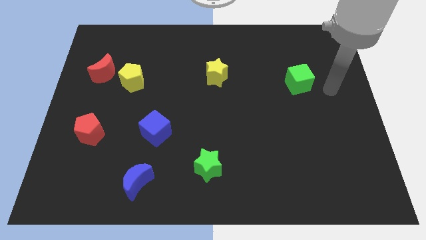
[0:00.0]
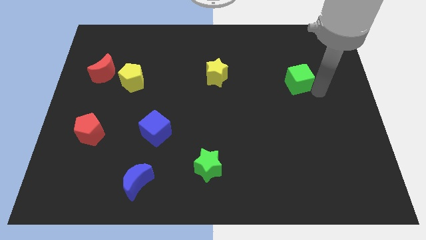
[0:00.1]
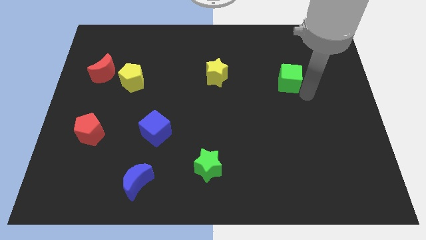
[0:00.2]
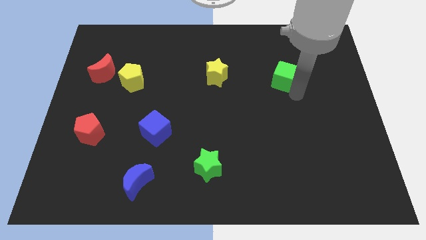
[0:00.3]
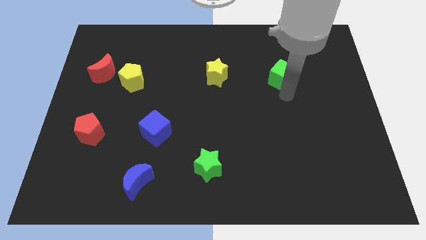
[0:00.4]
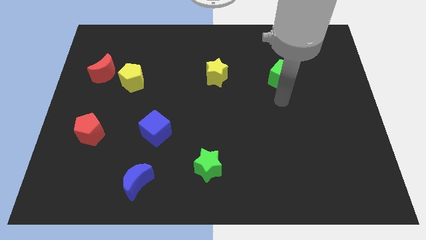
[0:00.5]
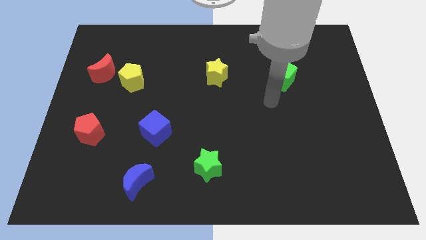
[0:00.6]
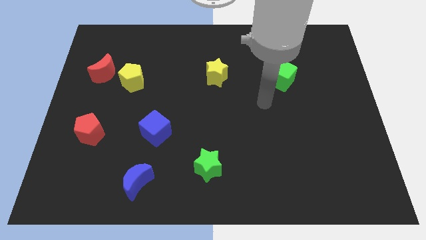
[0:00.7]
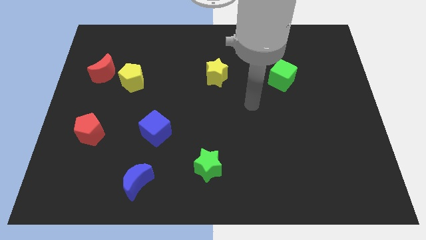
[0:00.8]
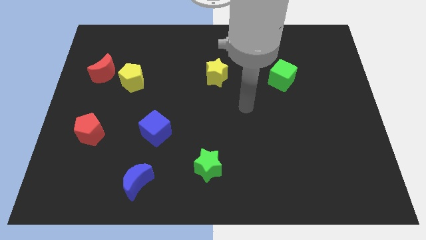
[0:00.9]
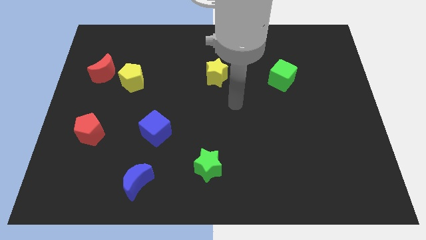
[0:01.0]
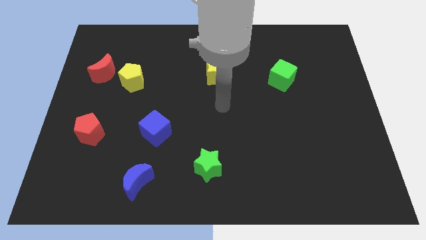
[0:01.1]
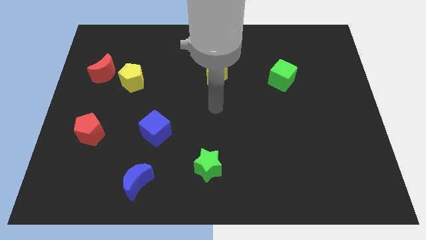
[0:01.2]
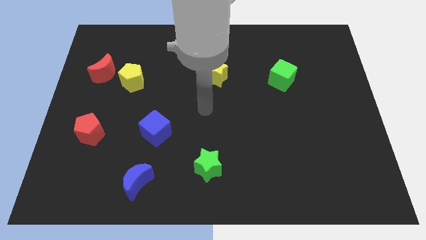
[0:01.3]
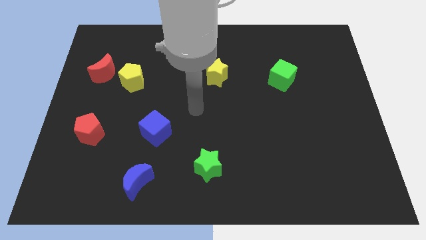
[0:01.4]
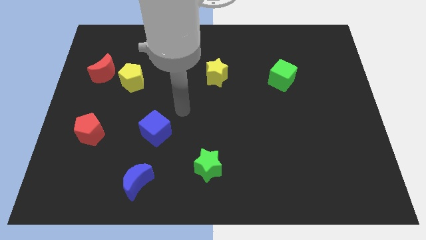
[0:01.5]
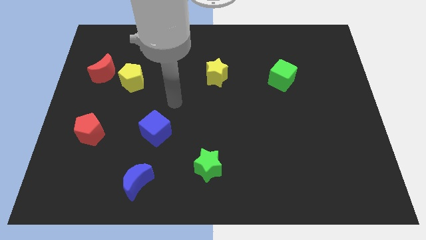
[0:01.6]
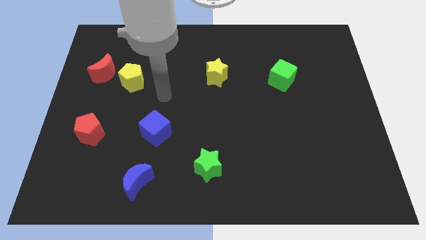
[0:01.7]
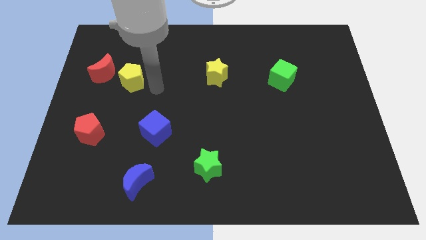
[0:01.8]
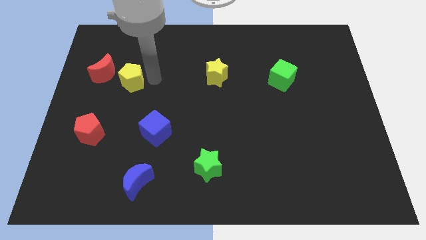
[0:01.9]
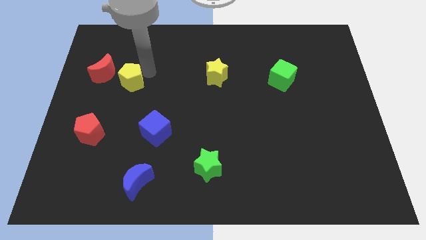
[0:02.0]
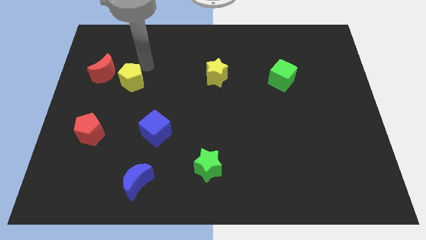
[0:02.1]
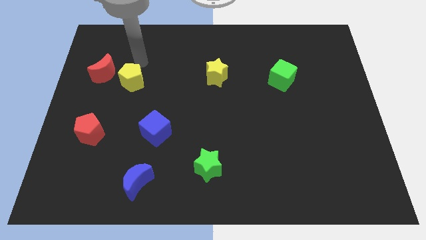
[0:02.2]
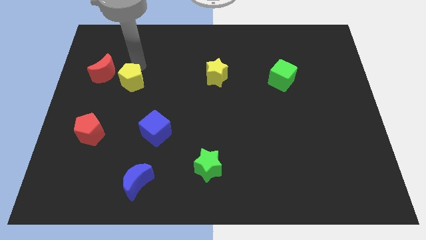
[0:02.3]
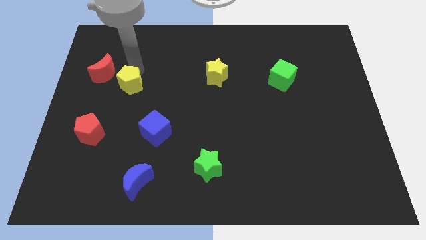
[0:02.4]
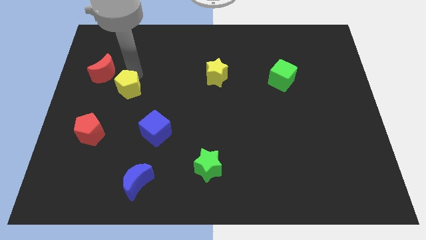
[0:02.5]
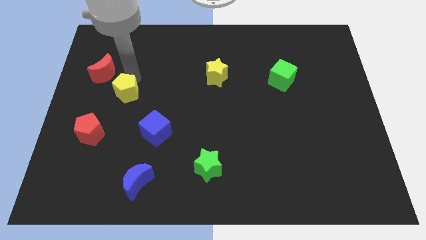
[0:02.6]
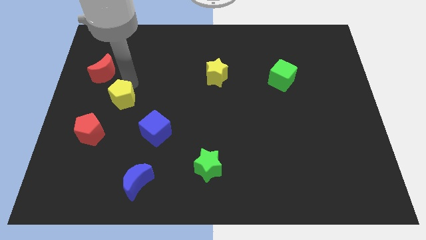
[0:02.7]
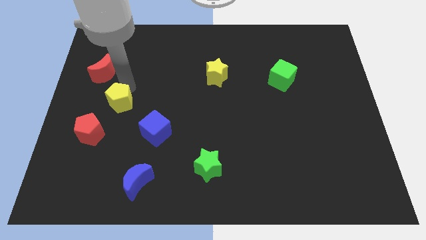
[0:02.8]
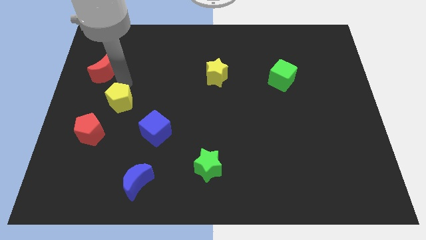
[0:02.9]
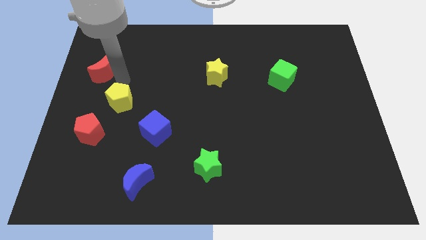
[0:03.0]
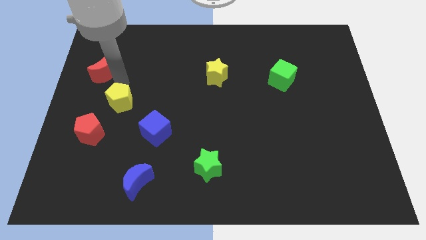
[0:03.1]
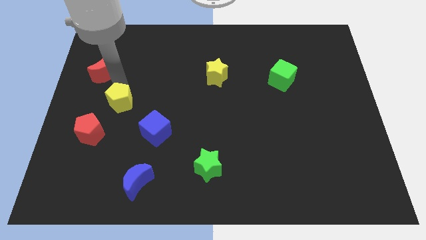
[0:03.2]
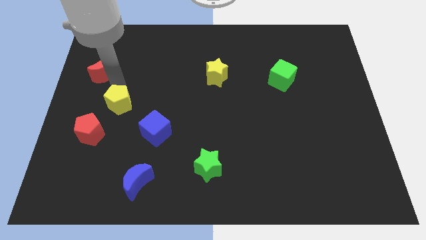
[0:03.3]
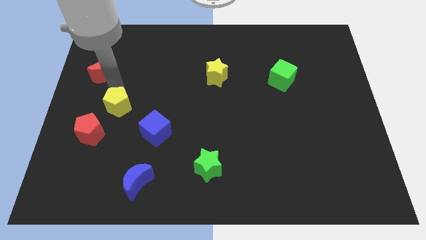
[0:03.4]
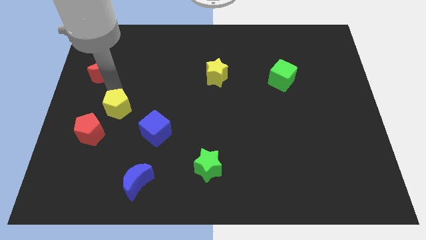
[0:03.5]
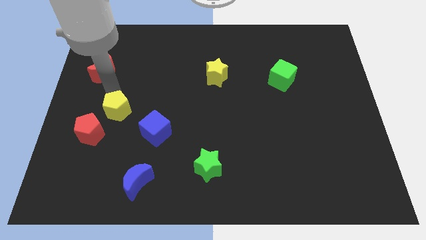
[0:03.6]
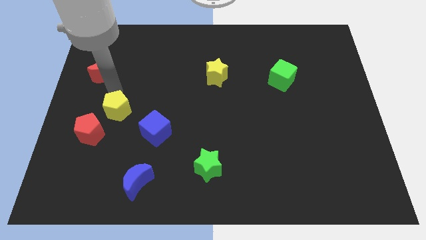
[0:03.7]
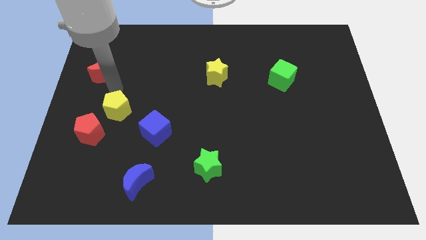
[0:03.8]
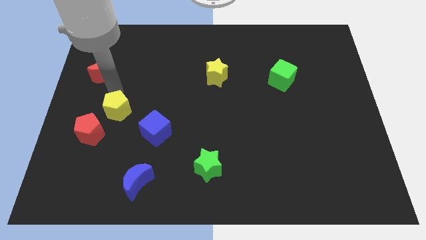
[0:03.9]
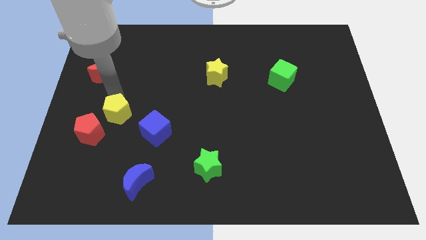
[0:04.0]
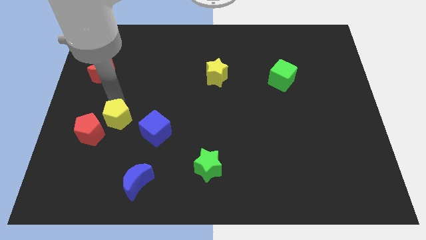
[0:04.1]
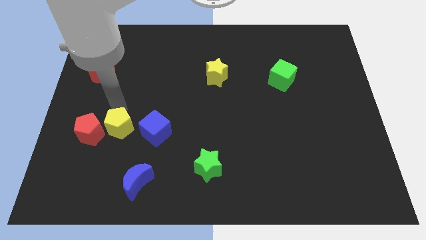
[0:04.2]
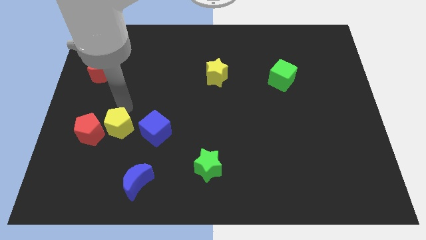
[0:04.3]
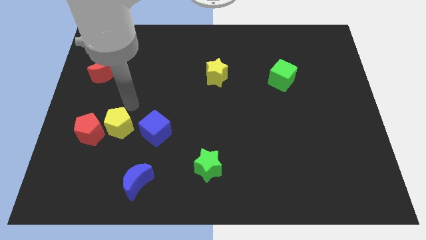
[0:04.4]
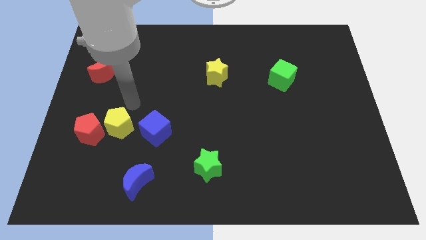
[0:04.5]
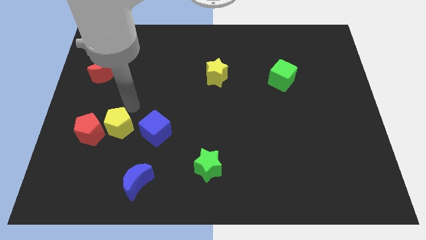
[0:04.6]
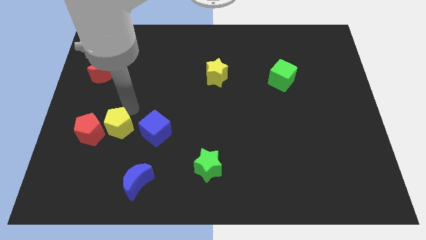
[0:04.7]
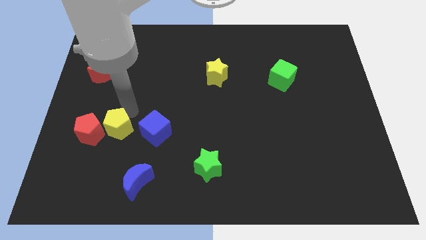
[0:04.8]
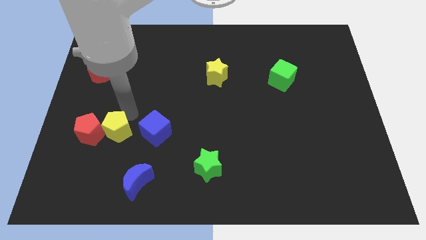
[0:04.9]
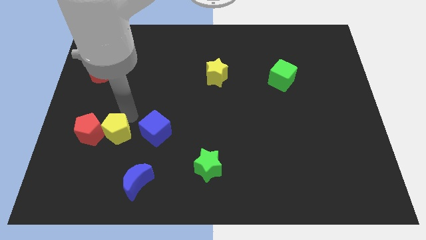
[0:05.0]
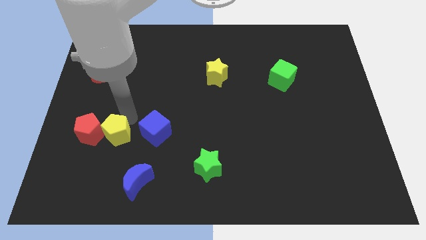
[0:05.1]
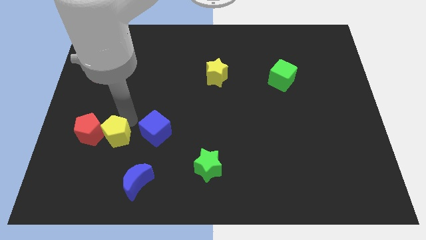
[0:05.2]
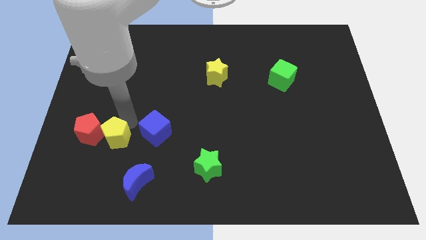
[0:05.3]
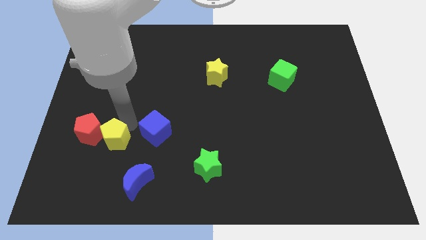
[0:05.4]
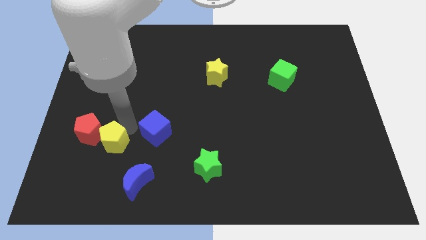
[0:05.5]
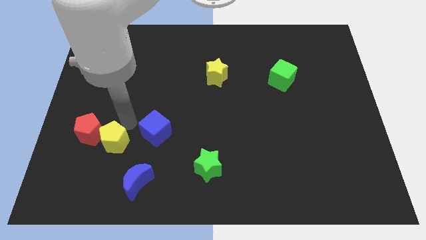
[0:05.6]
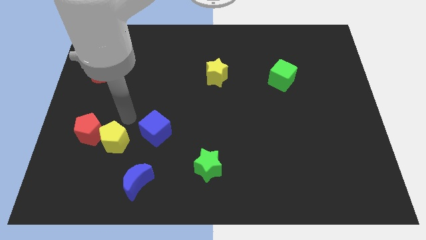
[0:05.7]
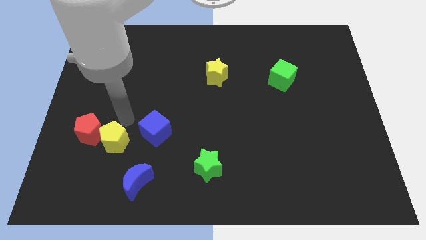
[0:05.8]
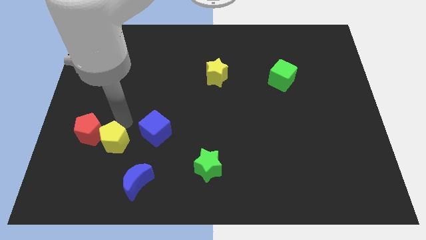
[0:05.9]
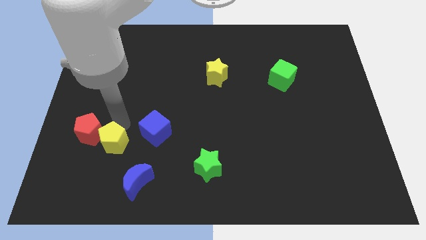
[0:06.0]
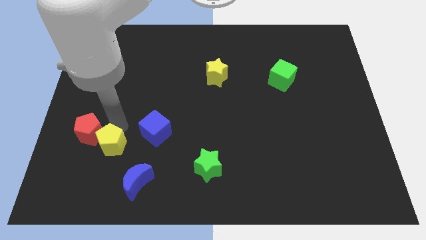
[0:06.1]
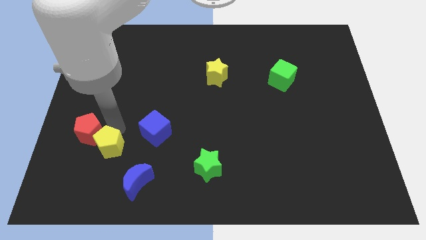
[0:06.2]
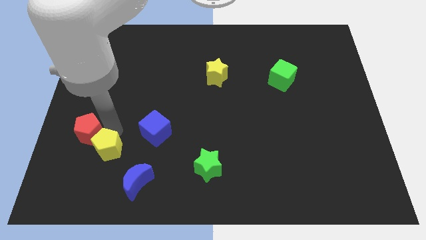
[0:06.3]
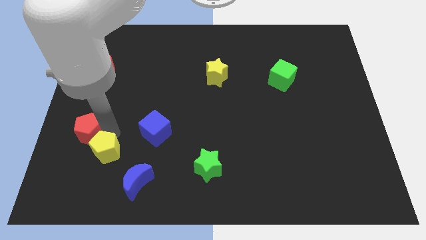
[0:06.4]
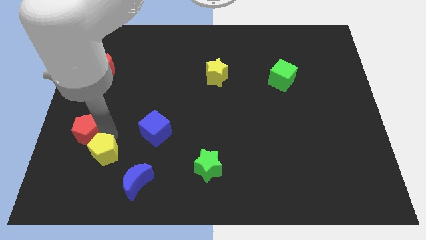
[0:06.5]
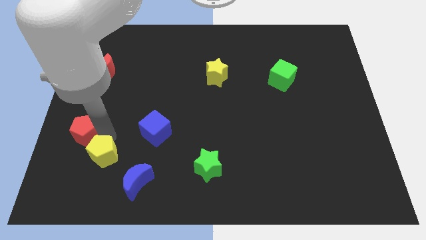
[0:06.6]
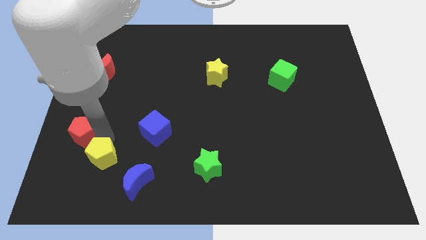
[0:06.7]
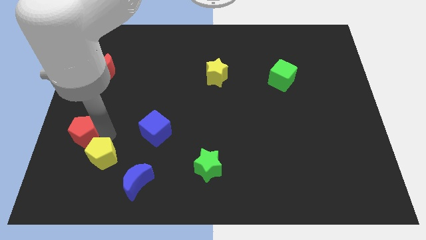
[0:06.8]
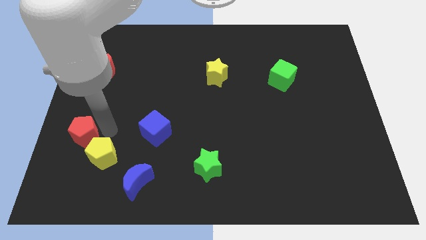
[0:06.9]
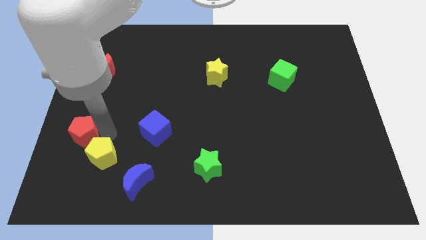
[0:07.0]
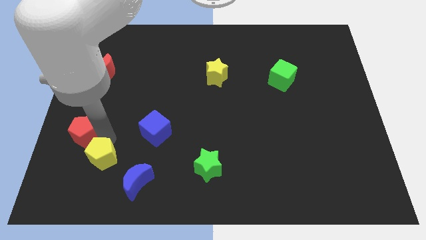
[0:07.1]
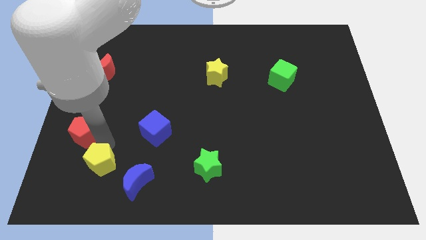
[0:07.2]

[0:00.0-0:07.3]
move the yellow pentagon just left of the blue moon

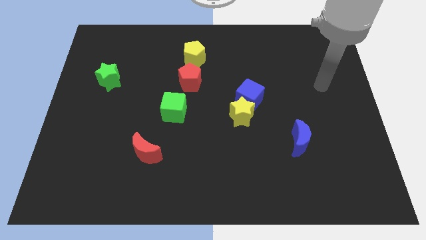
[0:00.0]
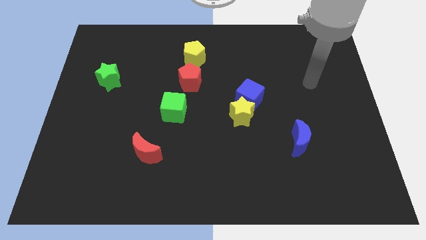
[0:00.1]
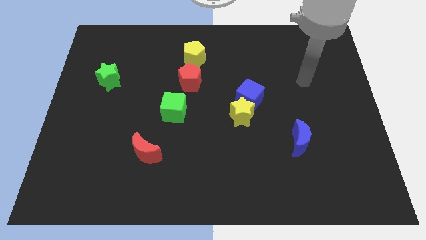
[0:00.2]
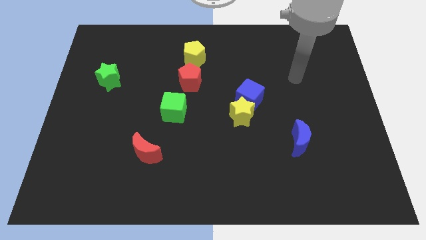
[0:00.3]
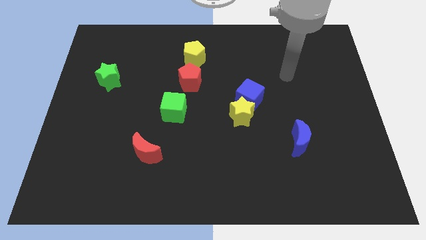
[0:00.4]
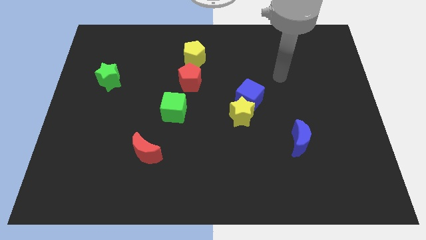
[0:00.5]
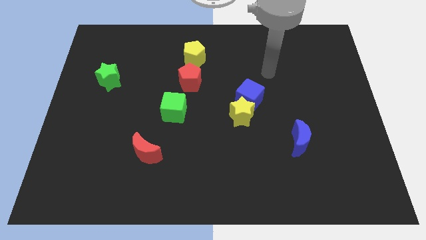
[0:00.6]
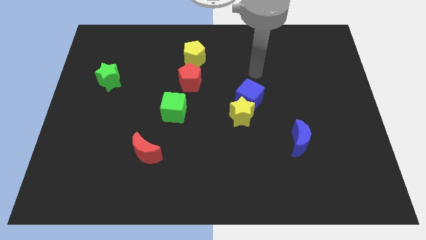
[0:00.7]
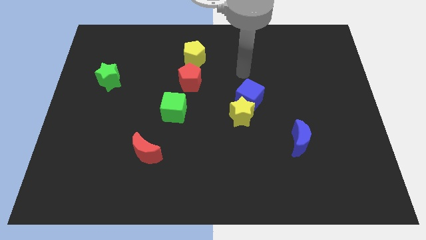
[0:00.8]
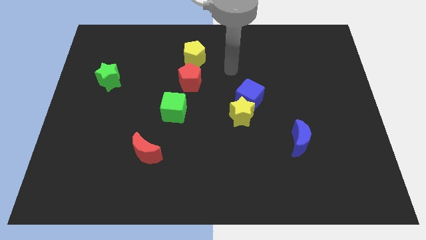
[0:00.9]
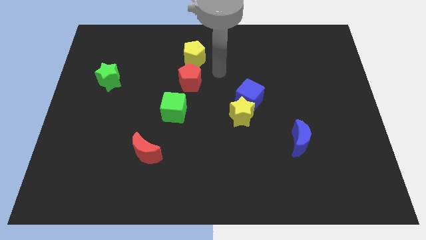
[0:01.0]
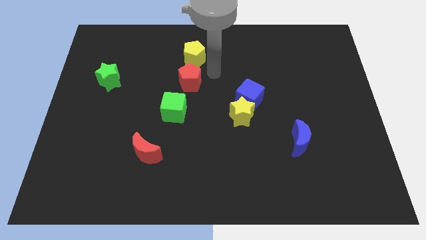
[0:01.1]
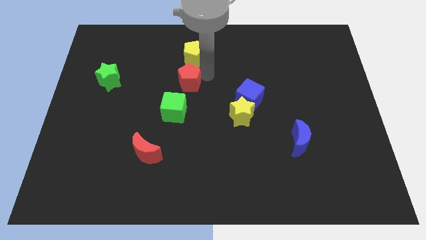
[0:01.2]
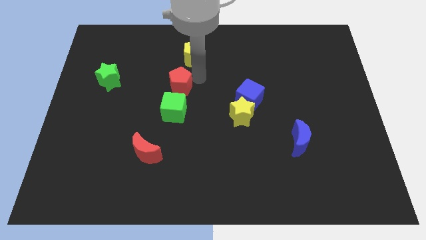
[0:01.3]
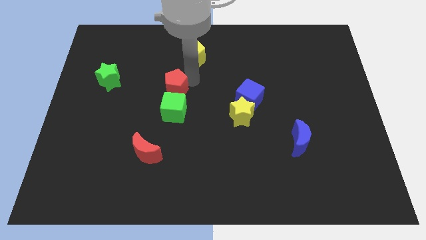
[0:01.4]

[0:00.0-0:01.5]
push the red pentagon diagonally up and to the left of the green cube
